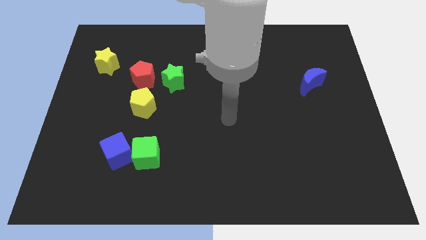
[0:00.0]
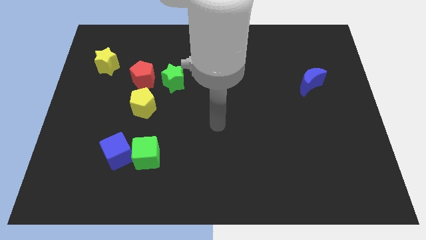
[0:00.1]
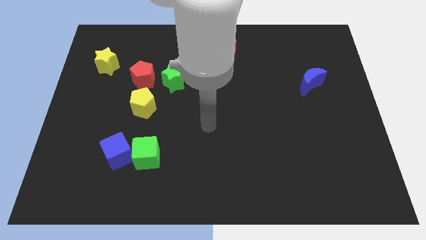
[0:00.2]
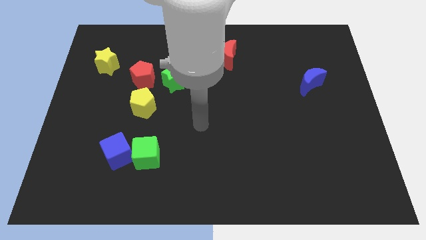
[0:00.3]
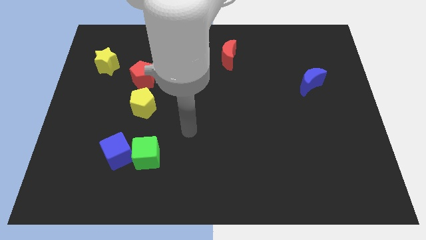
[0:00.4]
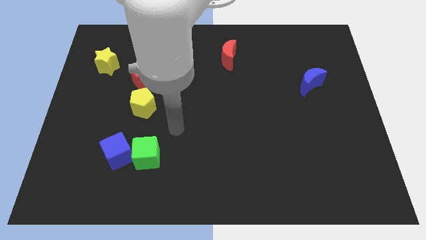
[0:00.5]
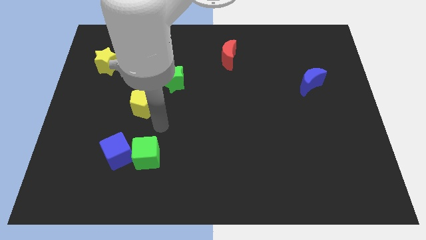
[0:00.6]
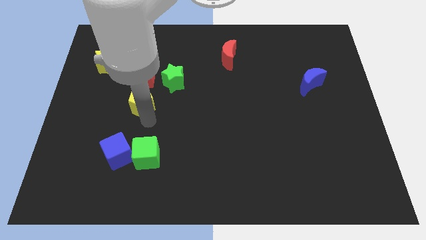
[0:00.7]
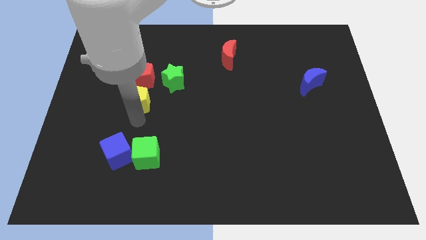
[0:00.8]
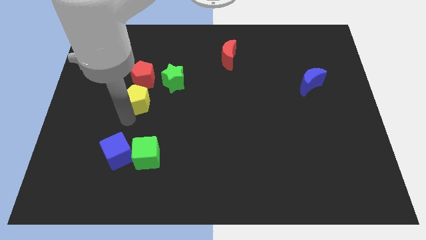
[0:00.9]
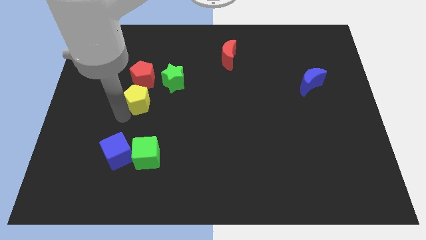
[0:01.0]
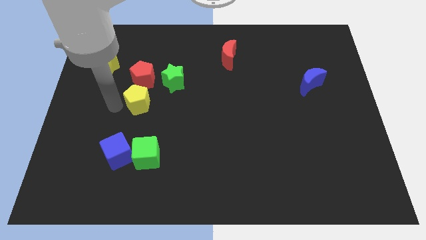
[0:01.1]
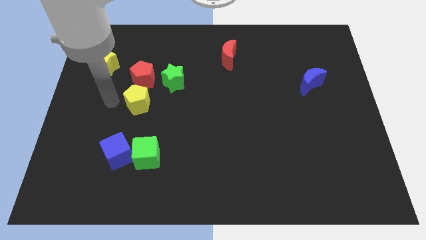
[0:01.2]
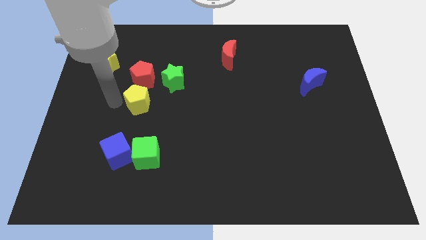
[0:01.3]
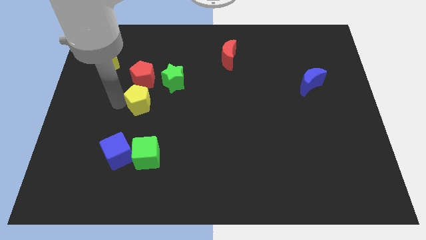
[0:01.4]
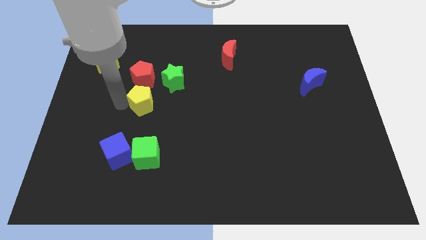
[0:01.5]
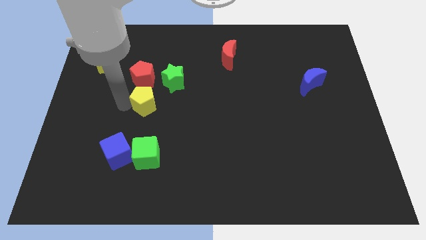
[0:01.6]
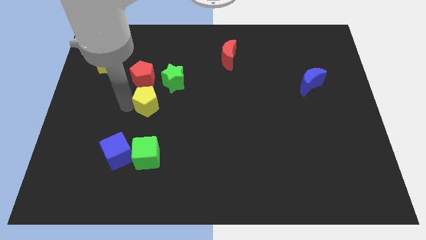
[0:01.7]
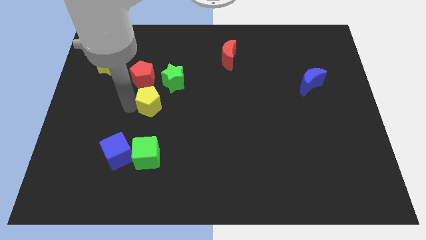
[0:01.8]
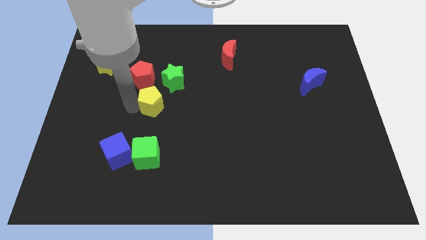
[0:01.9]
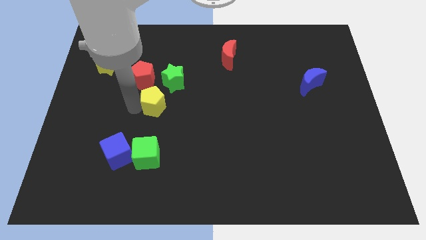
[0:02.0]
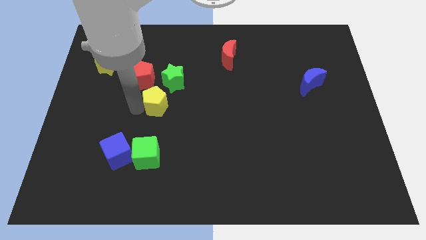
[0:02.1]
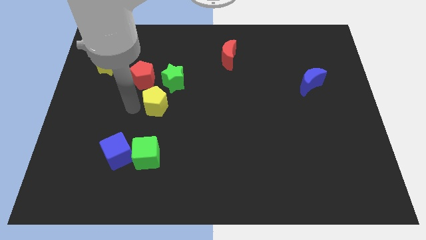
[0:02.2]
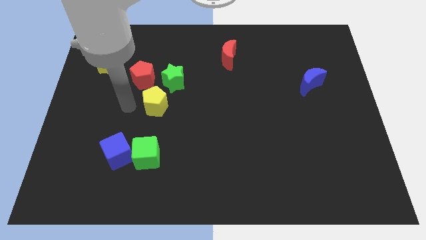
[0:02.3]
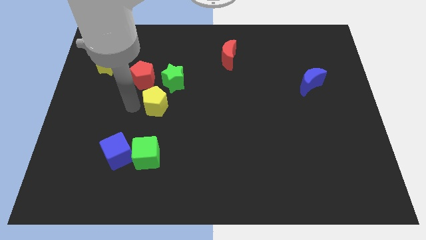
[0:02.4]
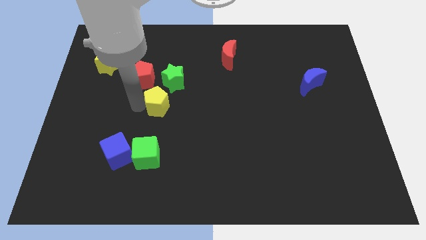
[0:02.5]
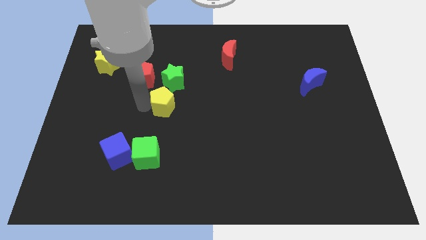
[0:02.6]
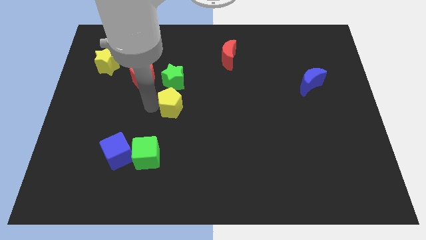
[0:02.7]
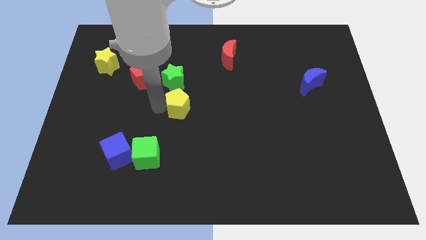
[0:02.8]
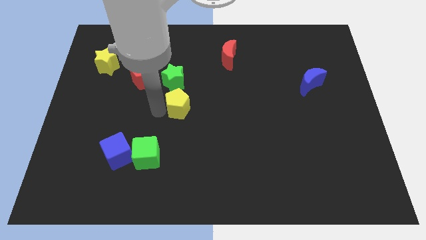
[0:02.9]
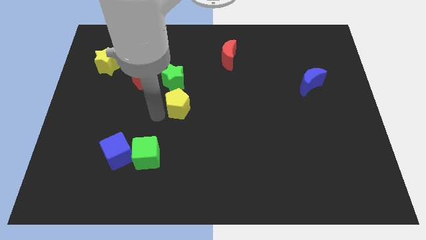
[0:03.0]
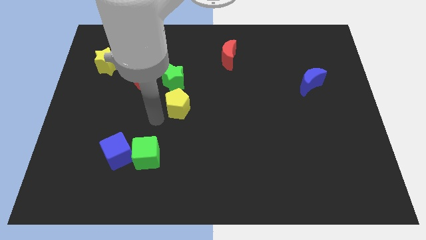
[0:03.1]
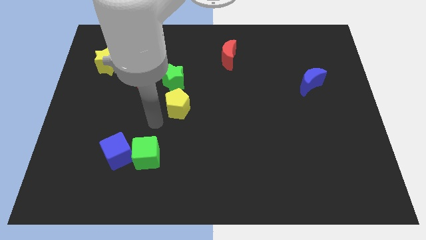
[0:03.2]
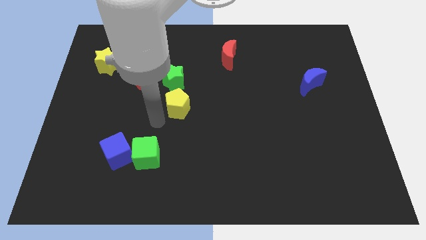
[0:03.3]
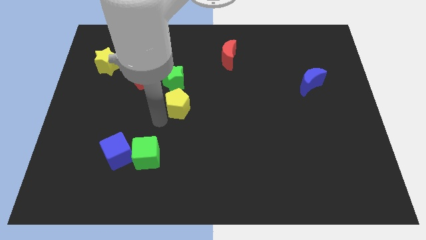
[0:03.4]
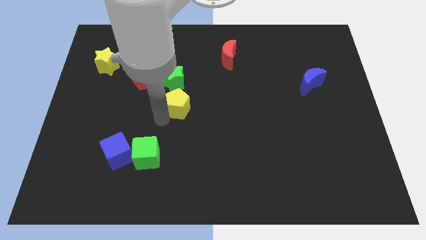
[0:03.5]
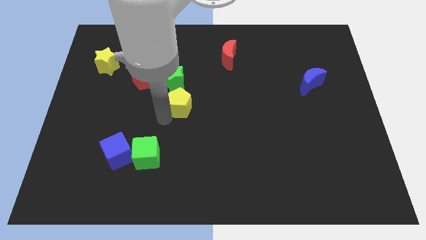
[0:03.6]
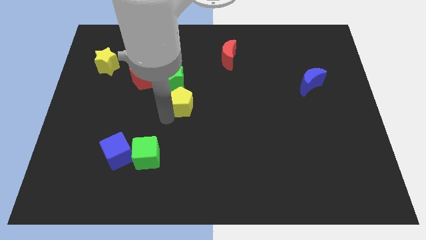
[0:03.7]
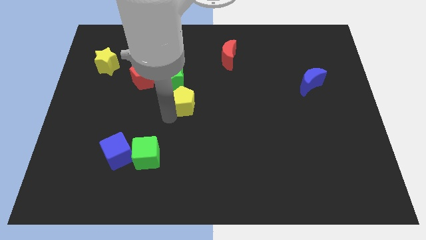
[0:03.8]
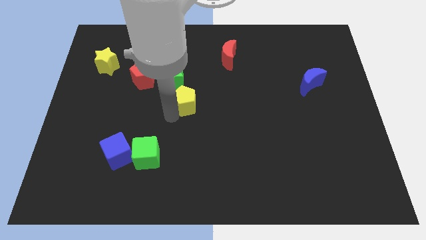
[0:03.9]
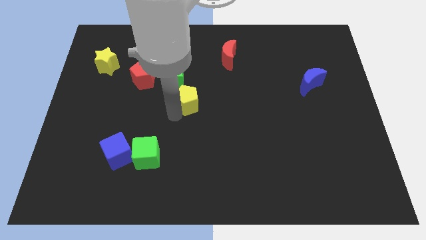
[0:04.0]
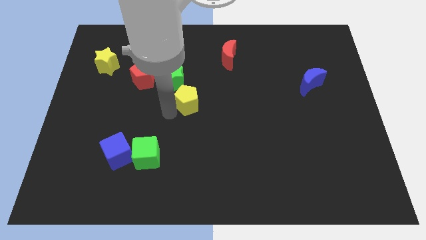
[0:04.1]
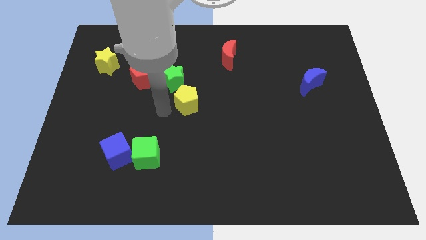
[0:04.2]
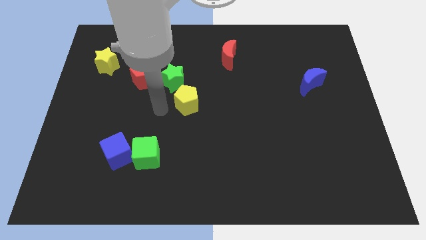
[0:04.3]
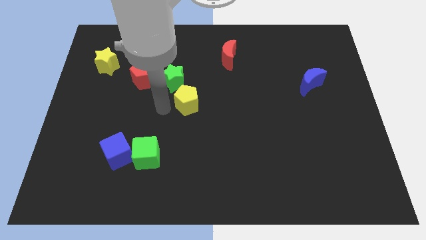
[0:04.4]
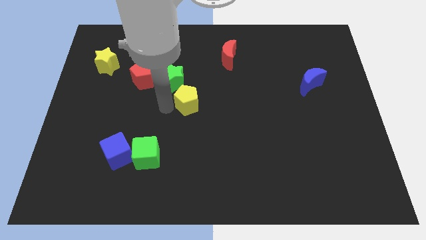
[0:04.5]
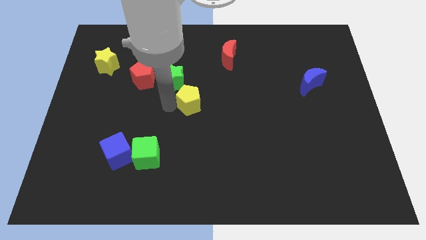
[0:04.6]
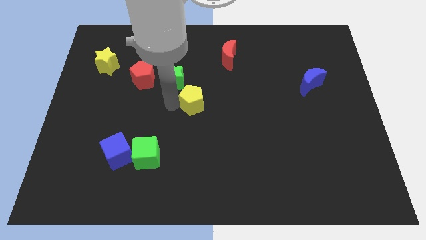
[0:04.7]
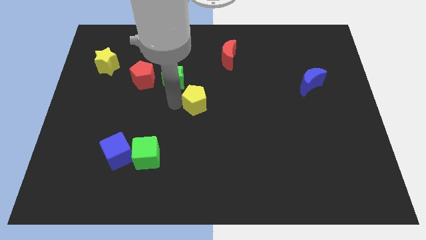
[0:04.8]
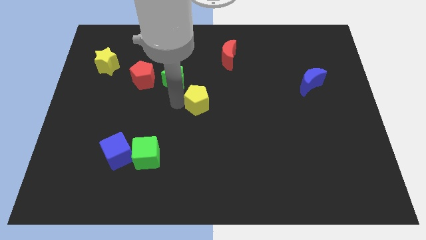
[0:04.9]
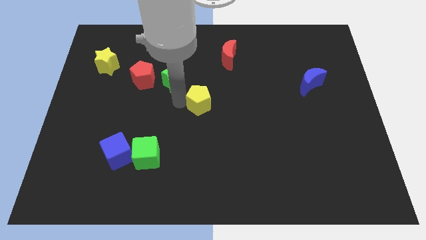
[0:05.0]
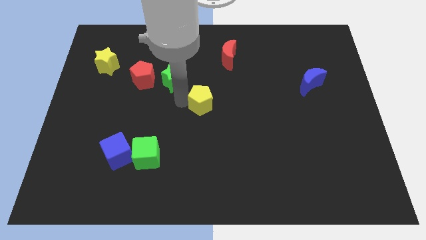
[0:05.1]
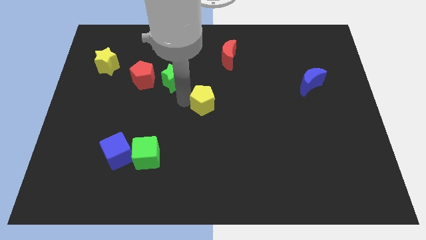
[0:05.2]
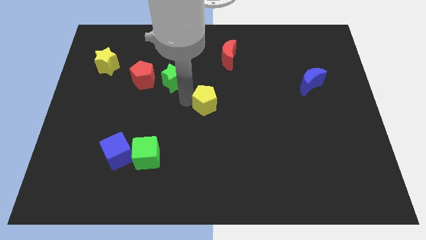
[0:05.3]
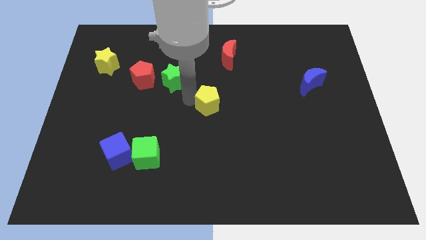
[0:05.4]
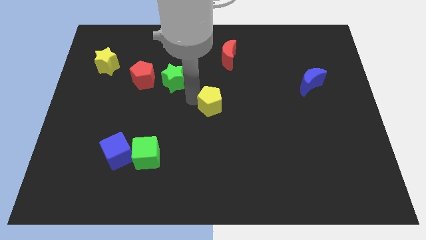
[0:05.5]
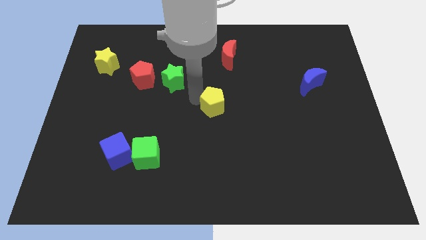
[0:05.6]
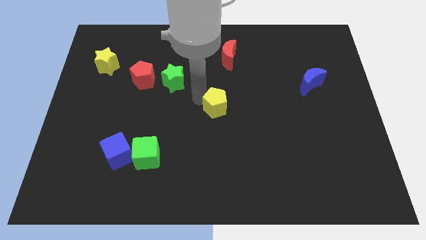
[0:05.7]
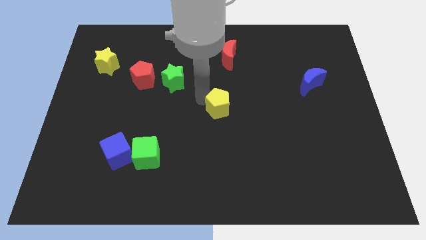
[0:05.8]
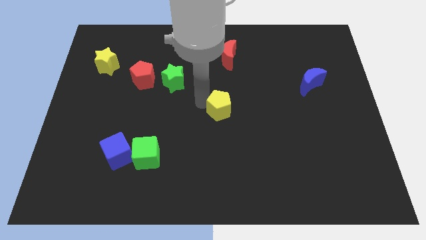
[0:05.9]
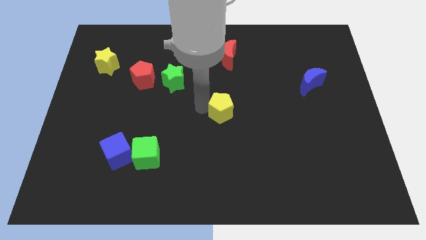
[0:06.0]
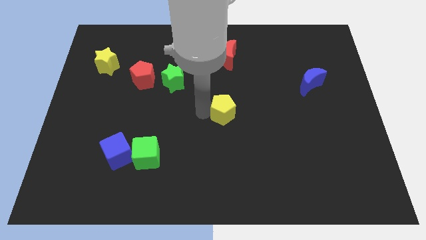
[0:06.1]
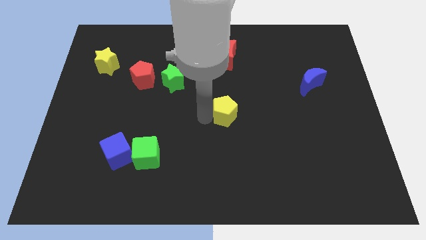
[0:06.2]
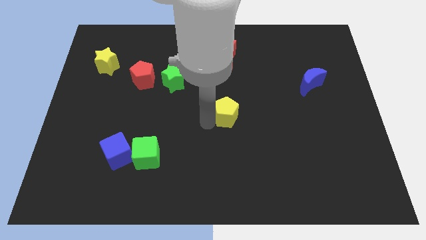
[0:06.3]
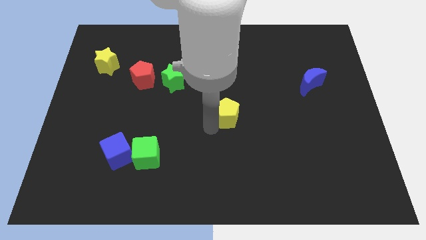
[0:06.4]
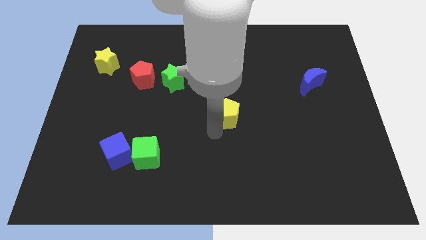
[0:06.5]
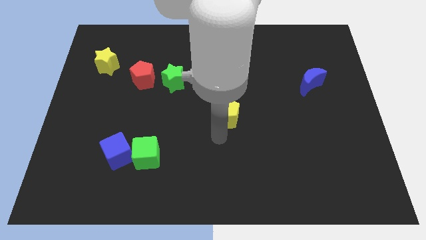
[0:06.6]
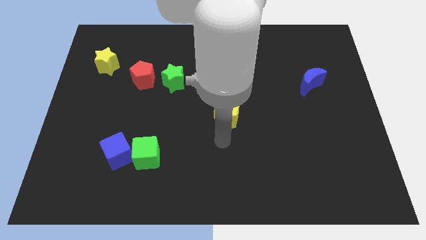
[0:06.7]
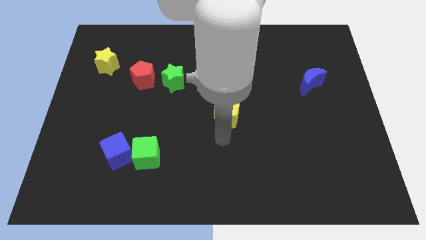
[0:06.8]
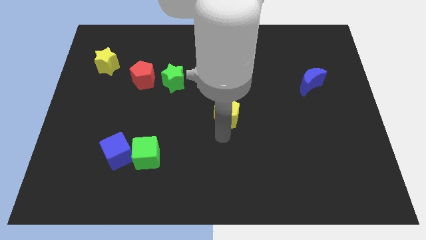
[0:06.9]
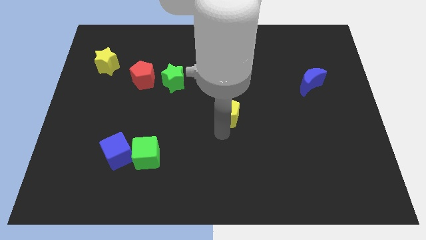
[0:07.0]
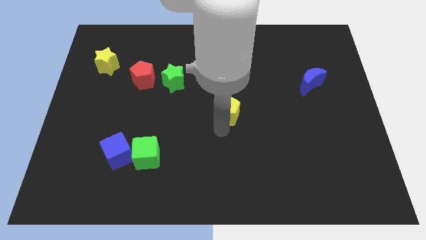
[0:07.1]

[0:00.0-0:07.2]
push the yellow pentagon to the right

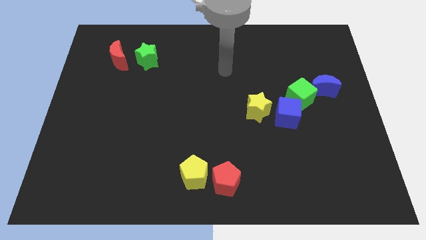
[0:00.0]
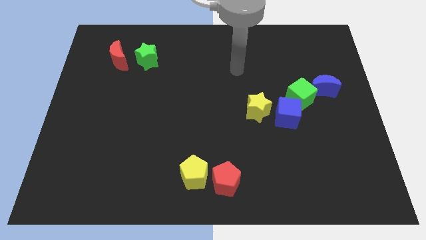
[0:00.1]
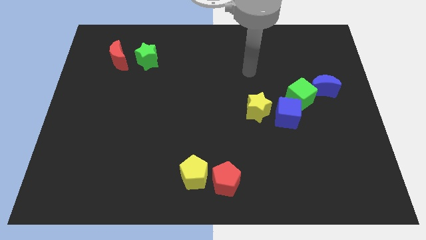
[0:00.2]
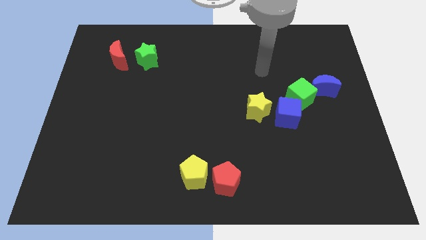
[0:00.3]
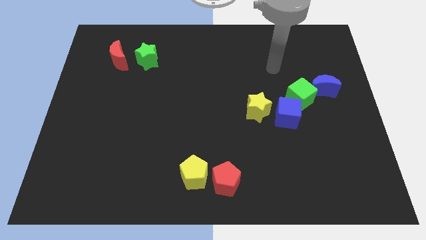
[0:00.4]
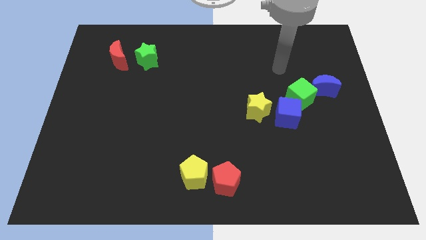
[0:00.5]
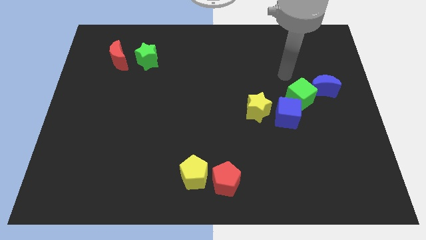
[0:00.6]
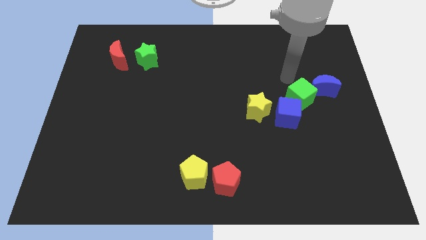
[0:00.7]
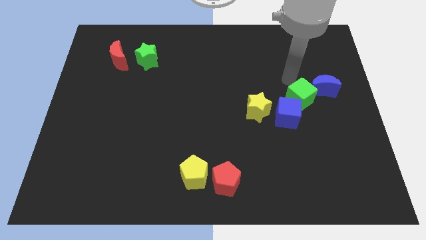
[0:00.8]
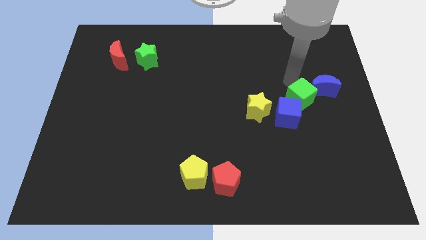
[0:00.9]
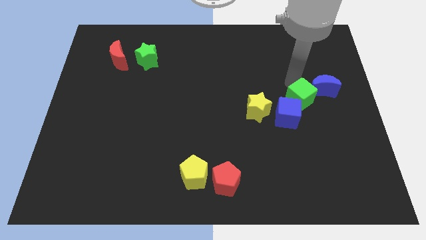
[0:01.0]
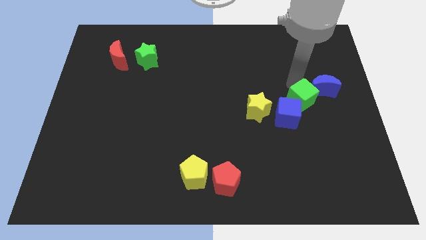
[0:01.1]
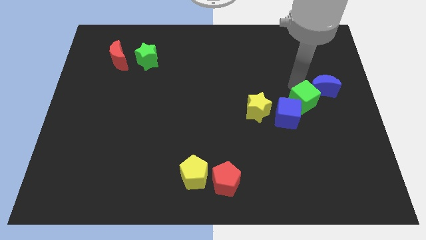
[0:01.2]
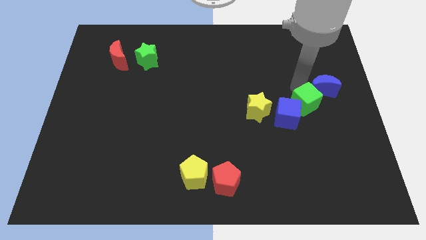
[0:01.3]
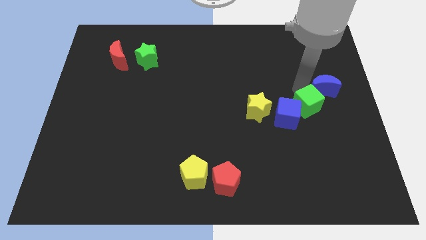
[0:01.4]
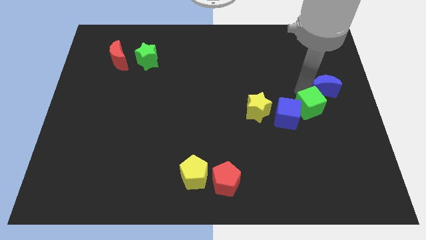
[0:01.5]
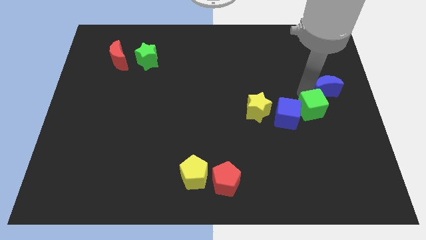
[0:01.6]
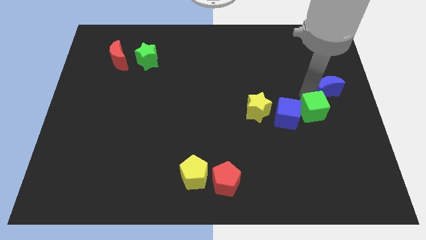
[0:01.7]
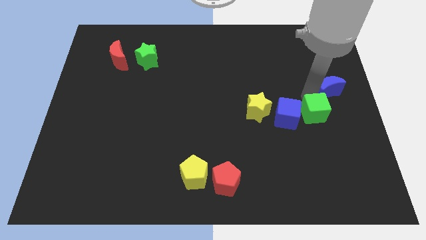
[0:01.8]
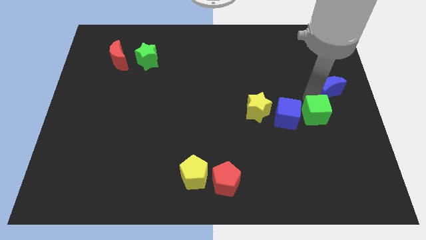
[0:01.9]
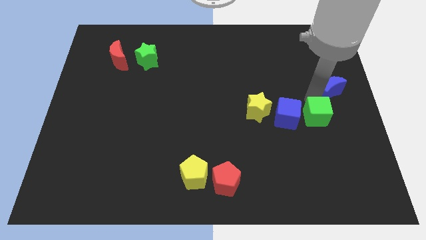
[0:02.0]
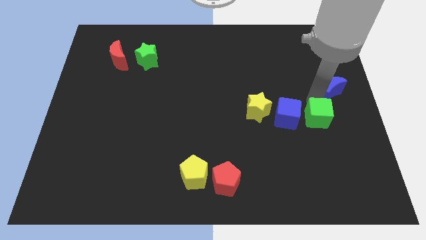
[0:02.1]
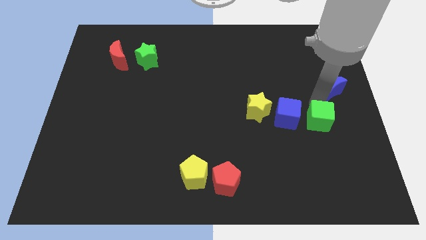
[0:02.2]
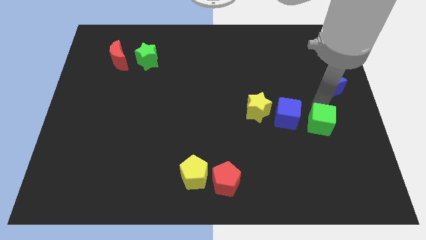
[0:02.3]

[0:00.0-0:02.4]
slide the green cube down a bit
